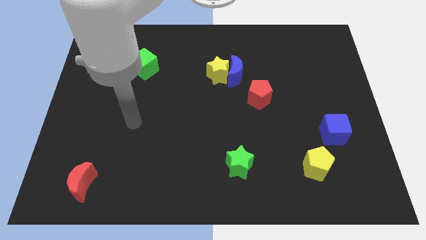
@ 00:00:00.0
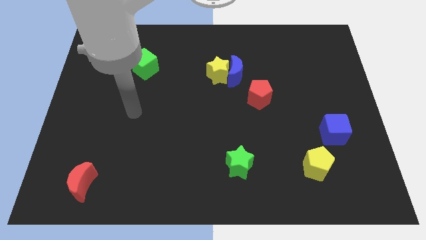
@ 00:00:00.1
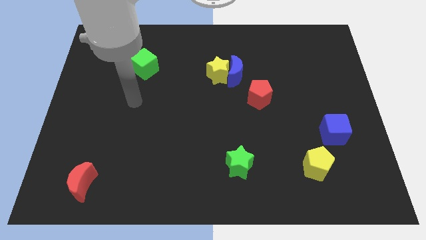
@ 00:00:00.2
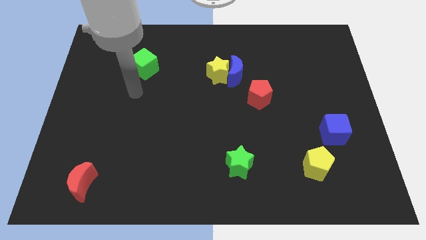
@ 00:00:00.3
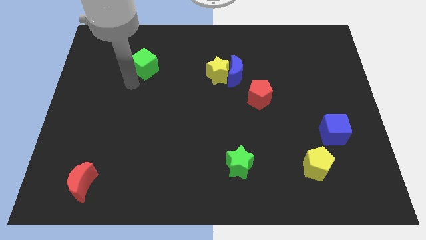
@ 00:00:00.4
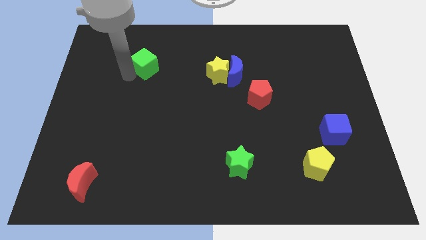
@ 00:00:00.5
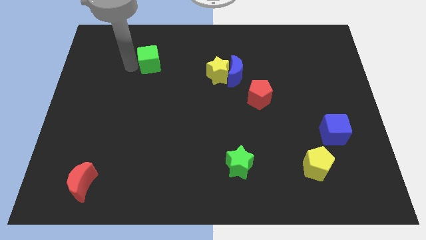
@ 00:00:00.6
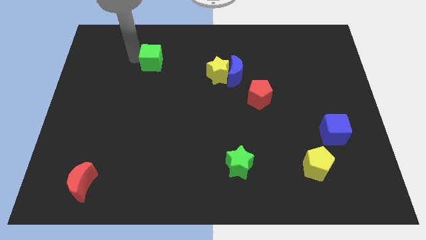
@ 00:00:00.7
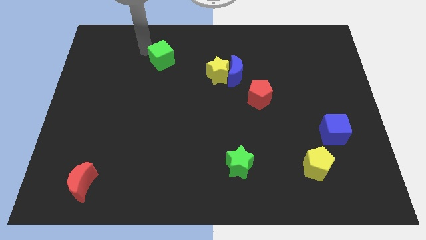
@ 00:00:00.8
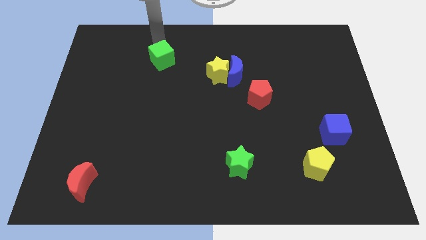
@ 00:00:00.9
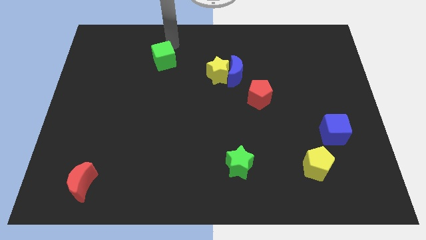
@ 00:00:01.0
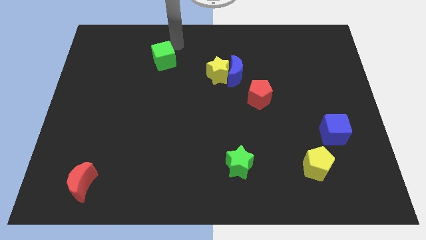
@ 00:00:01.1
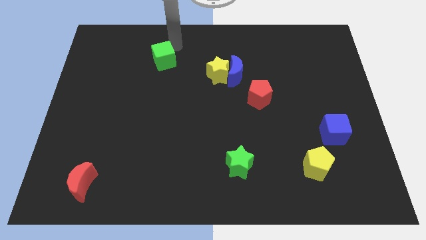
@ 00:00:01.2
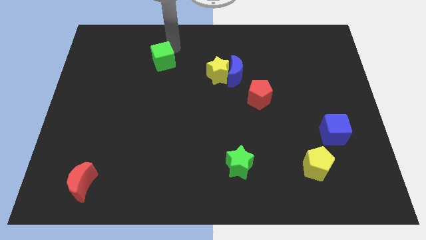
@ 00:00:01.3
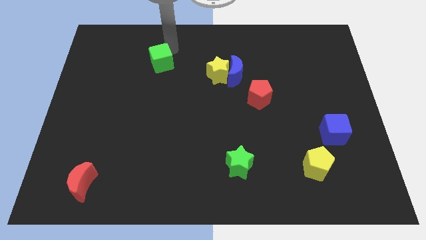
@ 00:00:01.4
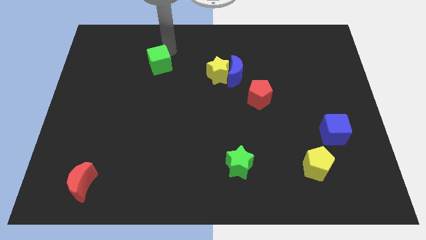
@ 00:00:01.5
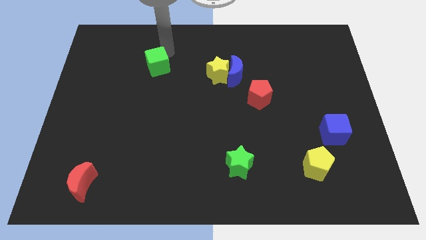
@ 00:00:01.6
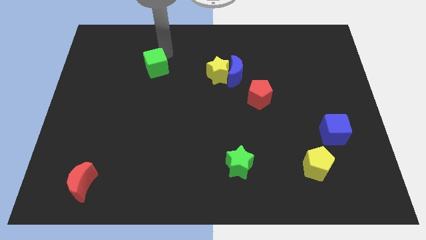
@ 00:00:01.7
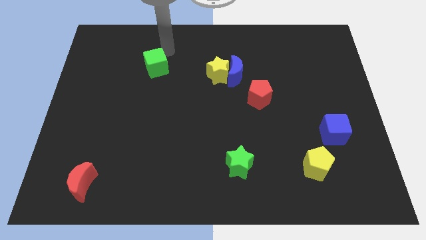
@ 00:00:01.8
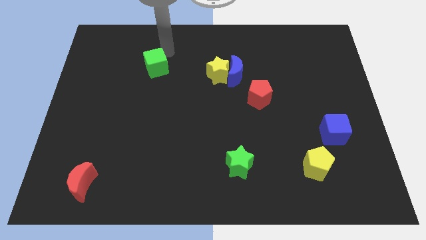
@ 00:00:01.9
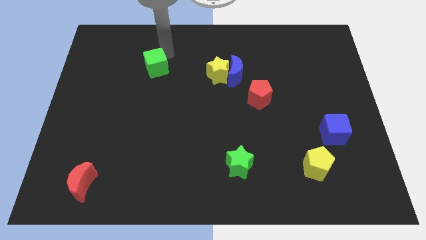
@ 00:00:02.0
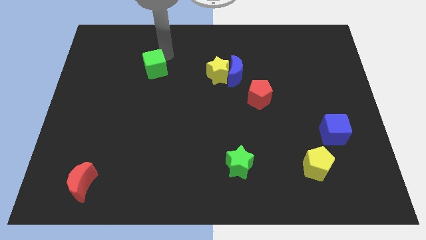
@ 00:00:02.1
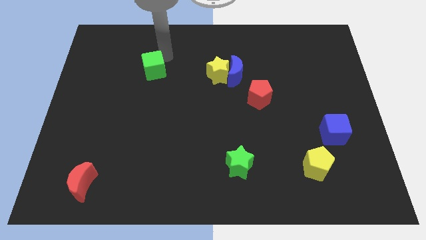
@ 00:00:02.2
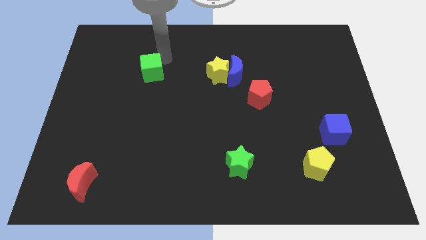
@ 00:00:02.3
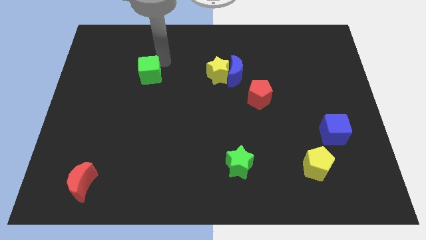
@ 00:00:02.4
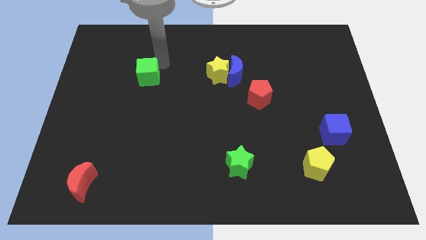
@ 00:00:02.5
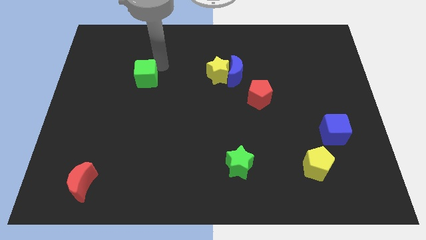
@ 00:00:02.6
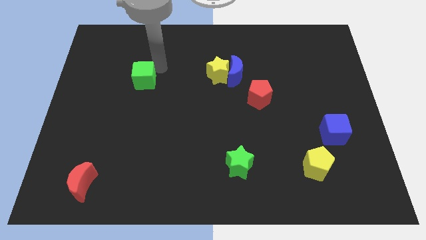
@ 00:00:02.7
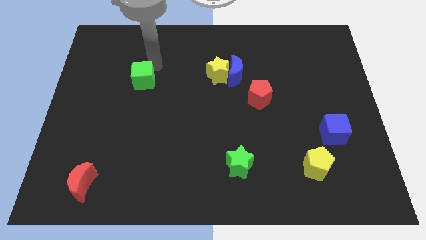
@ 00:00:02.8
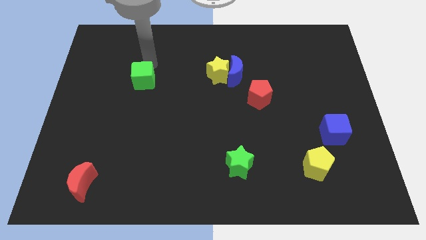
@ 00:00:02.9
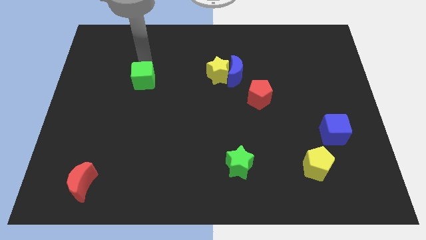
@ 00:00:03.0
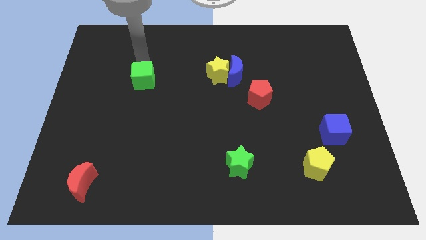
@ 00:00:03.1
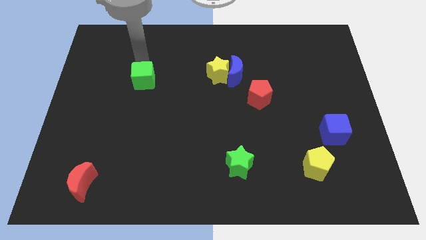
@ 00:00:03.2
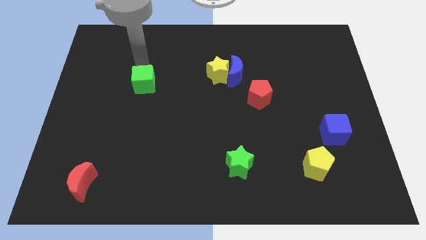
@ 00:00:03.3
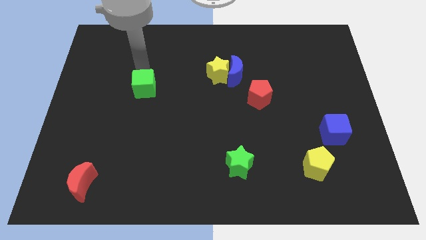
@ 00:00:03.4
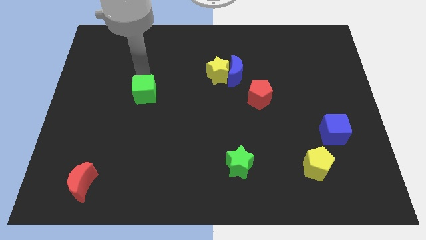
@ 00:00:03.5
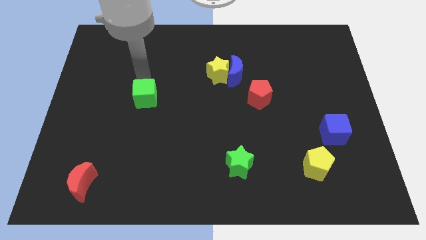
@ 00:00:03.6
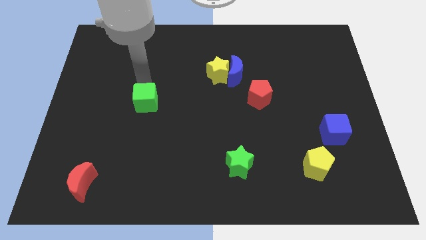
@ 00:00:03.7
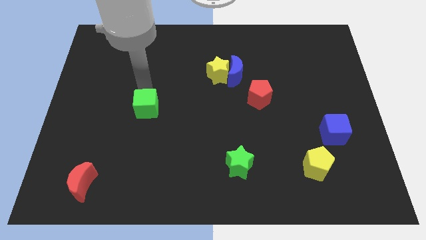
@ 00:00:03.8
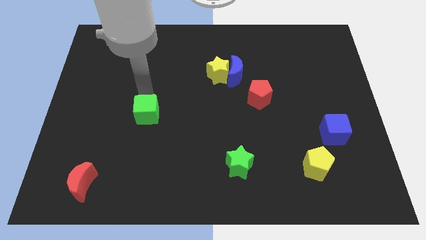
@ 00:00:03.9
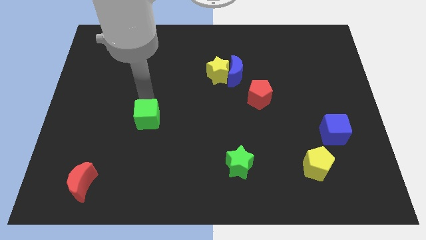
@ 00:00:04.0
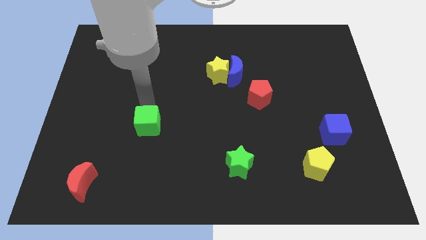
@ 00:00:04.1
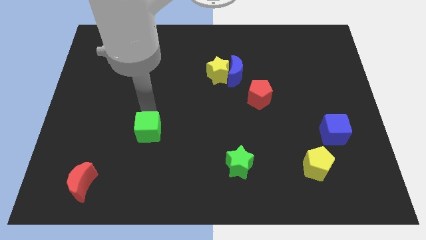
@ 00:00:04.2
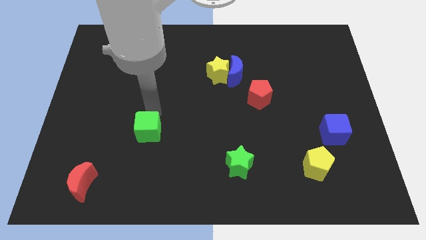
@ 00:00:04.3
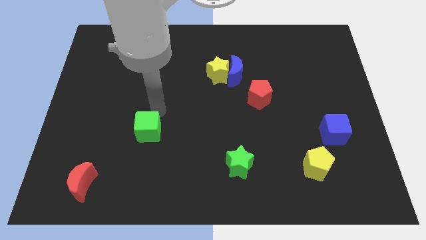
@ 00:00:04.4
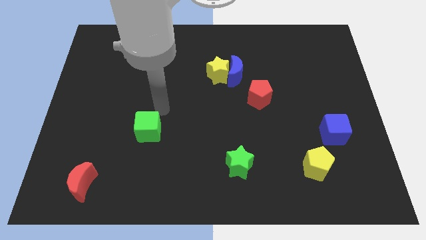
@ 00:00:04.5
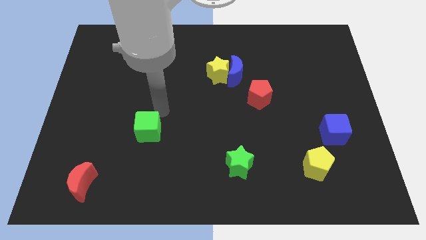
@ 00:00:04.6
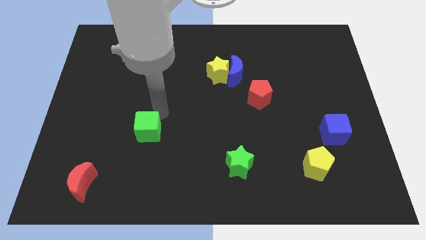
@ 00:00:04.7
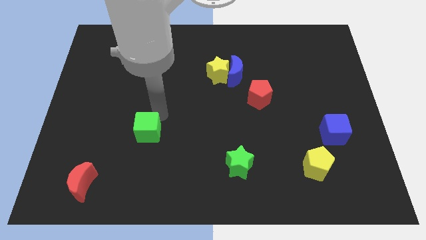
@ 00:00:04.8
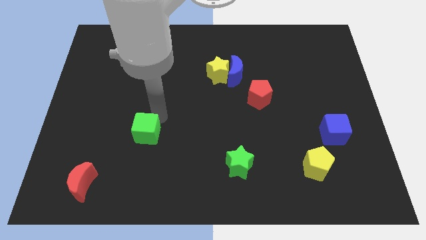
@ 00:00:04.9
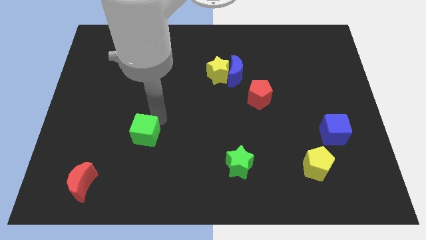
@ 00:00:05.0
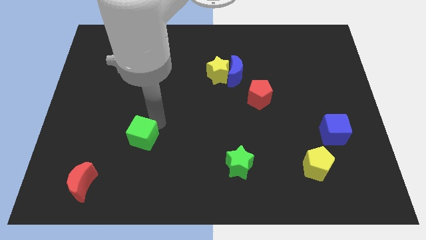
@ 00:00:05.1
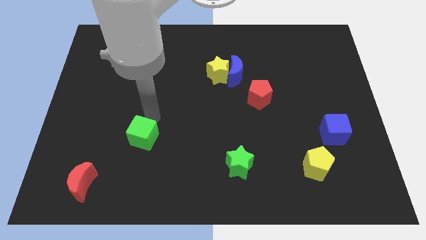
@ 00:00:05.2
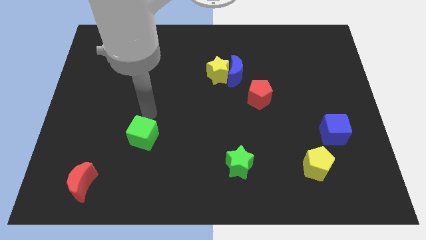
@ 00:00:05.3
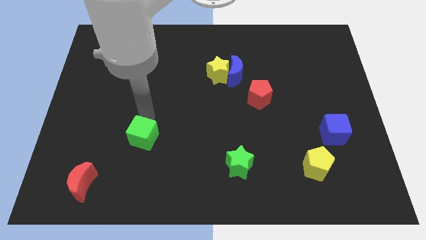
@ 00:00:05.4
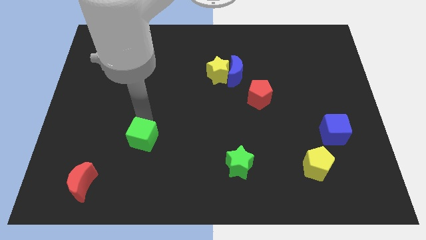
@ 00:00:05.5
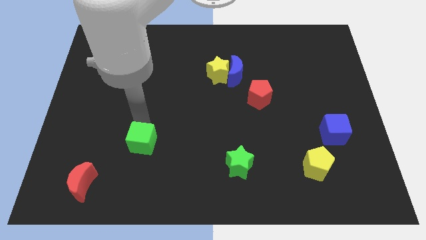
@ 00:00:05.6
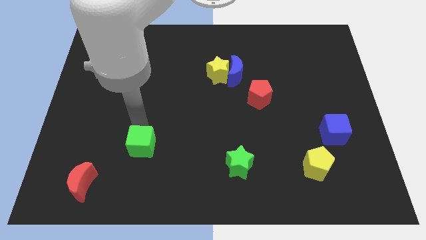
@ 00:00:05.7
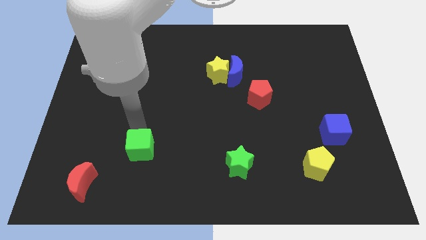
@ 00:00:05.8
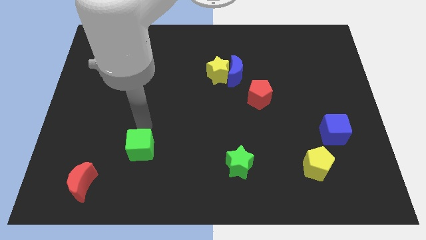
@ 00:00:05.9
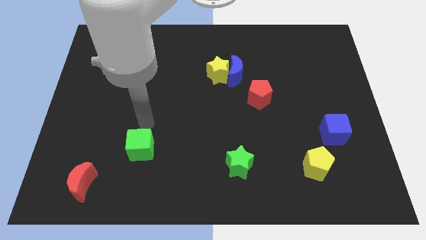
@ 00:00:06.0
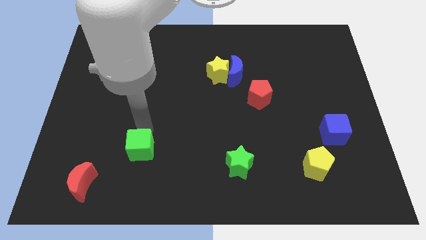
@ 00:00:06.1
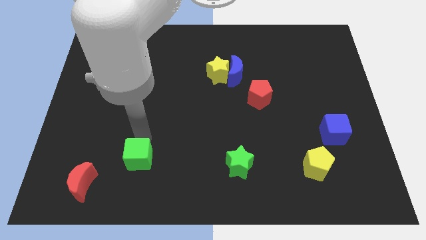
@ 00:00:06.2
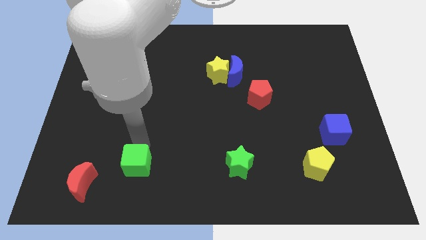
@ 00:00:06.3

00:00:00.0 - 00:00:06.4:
put the green cube right of the red moon

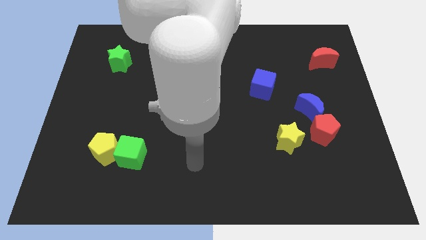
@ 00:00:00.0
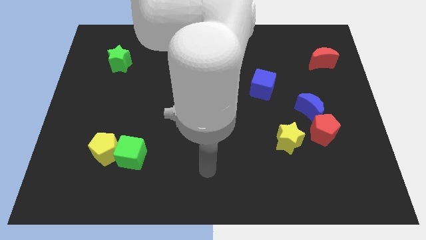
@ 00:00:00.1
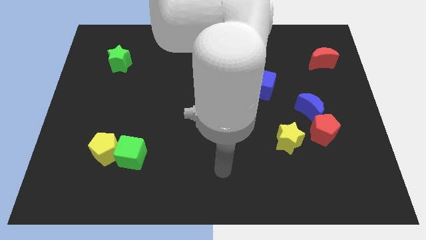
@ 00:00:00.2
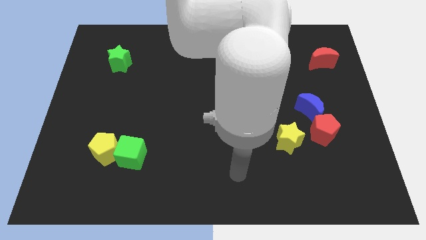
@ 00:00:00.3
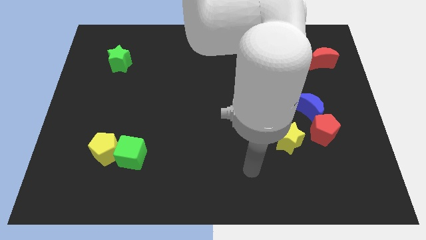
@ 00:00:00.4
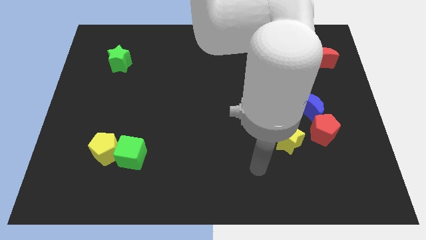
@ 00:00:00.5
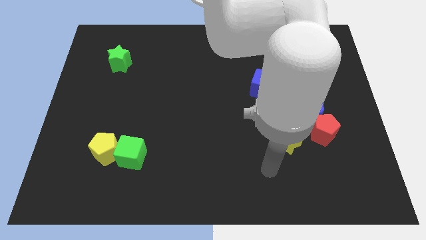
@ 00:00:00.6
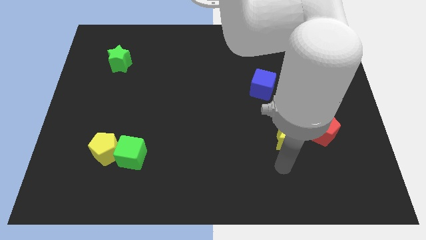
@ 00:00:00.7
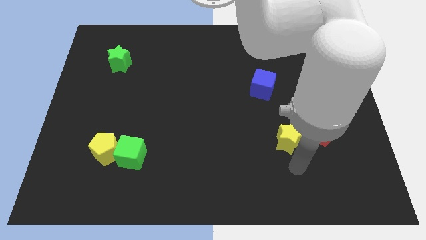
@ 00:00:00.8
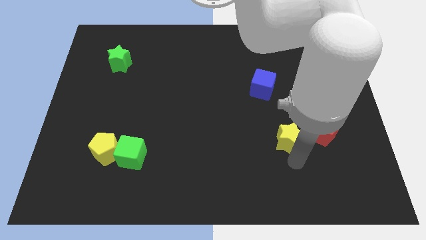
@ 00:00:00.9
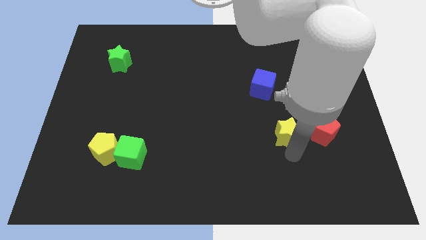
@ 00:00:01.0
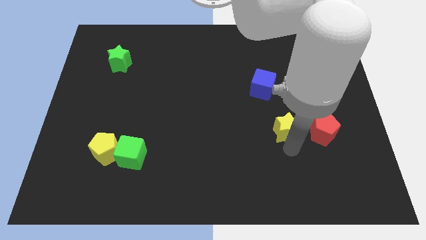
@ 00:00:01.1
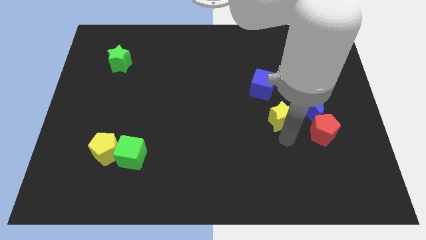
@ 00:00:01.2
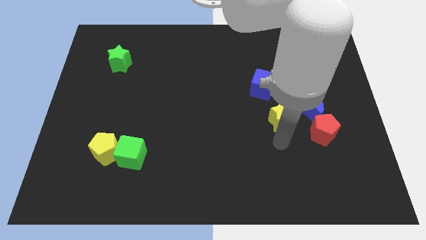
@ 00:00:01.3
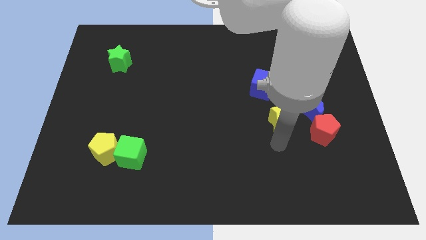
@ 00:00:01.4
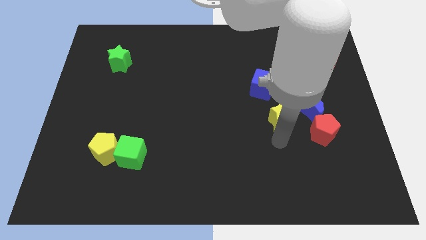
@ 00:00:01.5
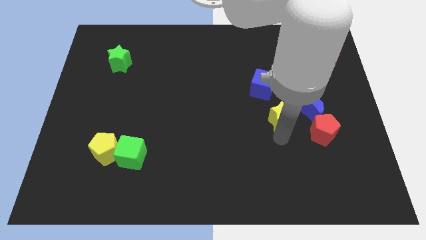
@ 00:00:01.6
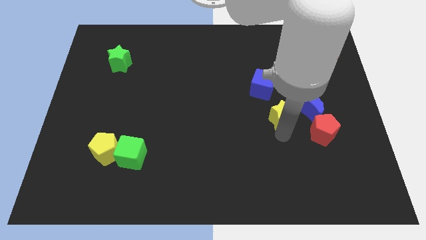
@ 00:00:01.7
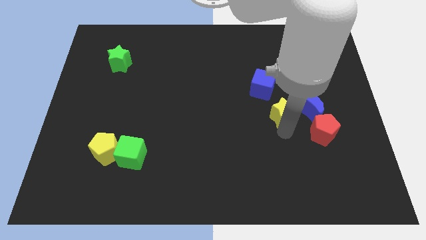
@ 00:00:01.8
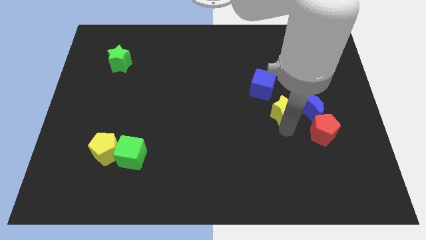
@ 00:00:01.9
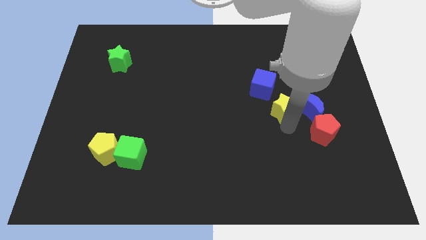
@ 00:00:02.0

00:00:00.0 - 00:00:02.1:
slide the yellow star to the top left of the blue moon
